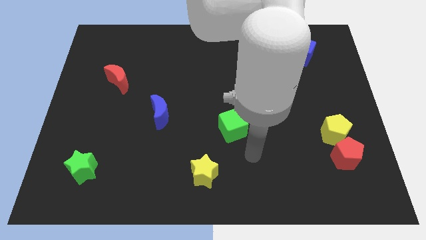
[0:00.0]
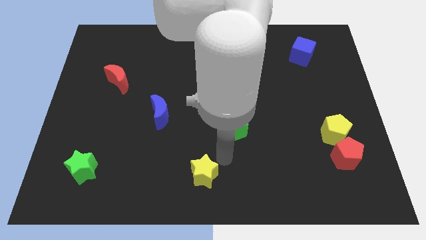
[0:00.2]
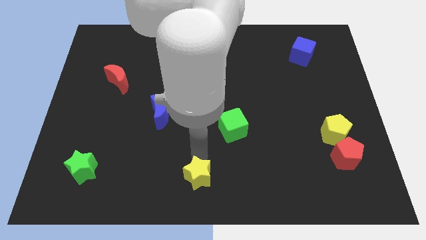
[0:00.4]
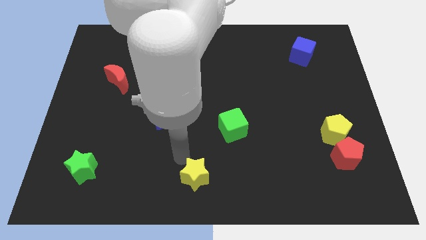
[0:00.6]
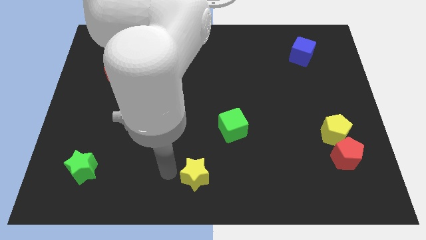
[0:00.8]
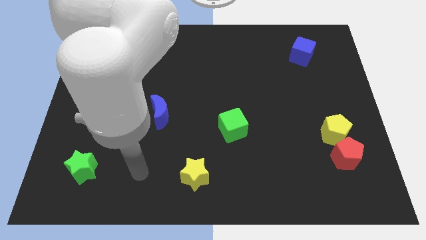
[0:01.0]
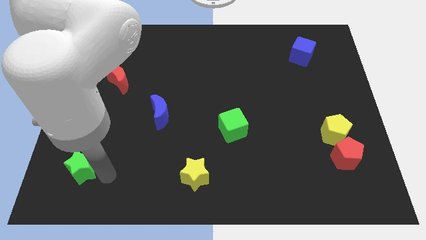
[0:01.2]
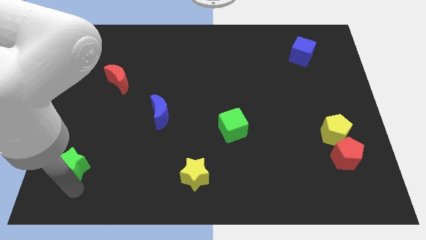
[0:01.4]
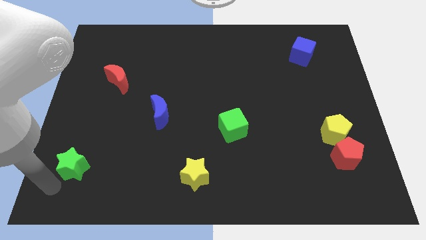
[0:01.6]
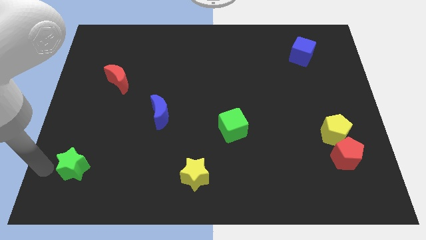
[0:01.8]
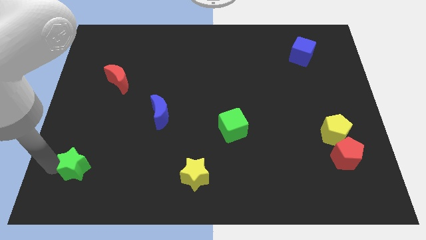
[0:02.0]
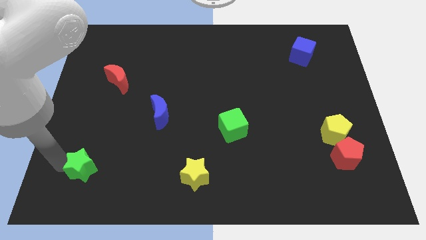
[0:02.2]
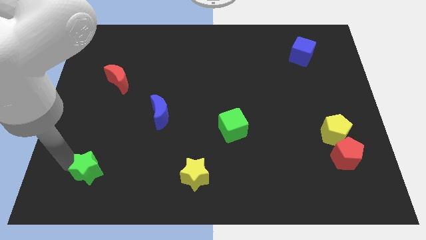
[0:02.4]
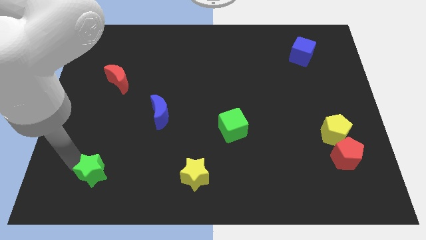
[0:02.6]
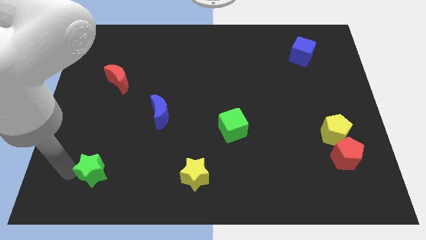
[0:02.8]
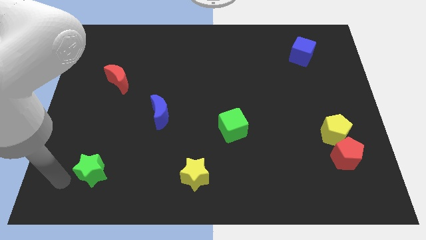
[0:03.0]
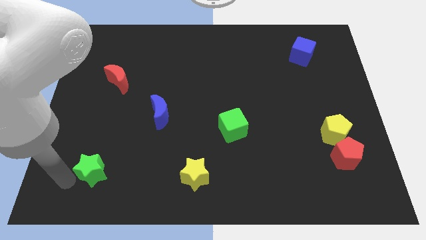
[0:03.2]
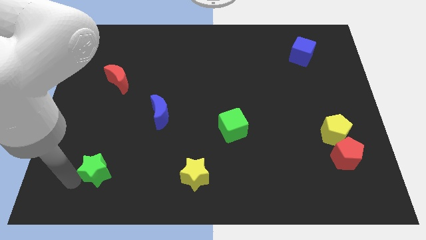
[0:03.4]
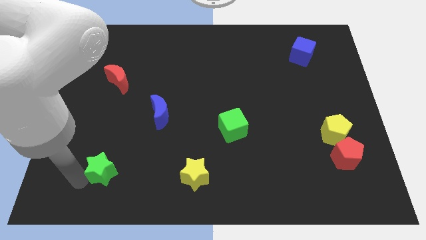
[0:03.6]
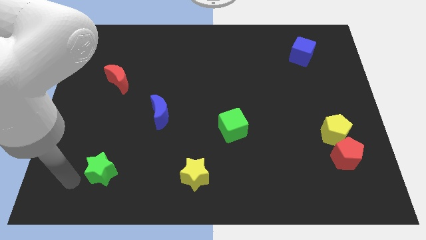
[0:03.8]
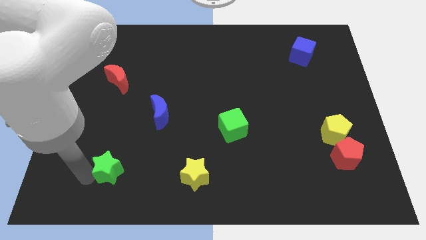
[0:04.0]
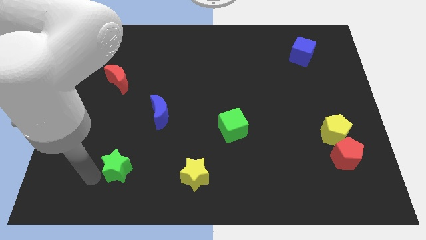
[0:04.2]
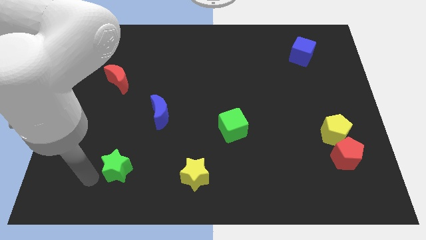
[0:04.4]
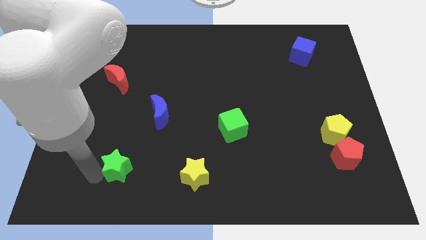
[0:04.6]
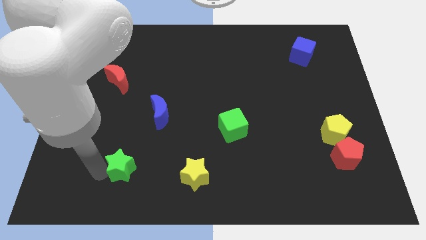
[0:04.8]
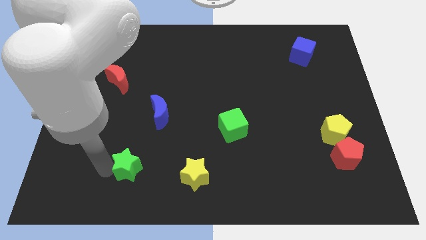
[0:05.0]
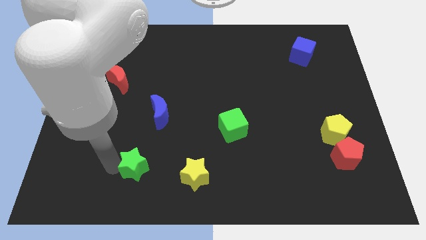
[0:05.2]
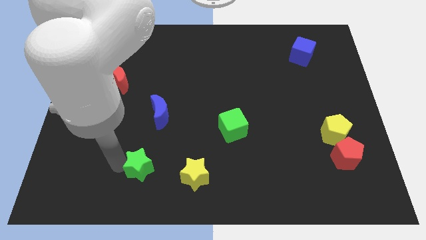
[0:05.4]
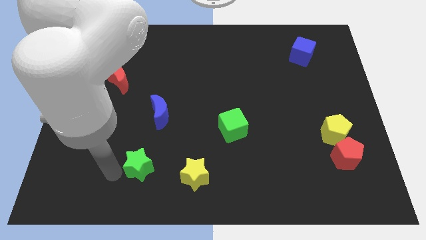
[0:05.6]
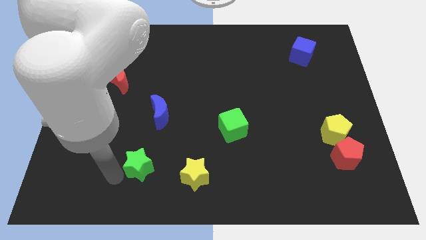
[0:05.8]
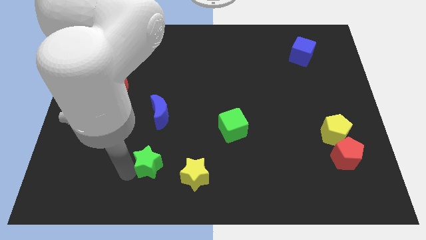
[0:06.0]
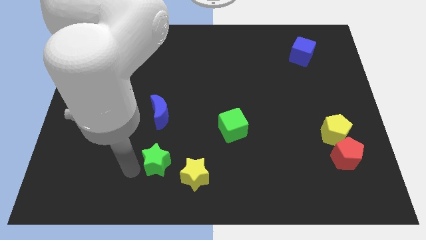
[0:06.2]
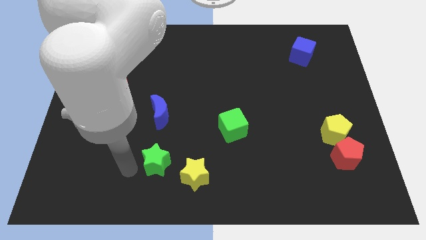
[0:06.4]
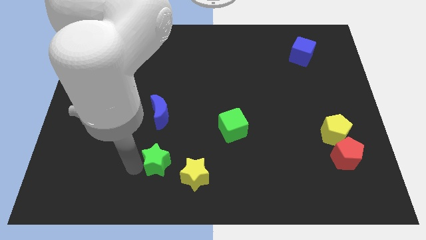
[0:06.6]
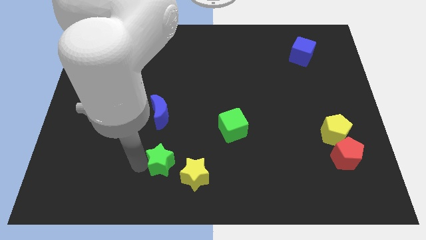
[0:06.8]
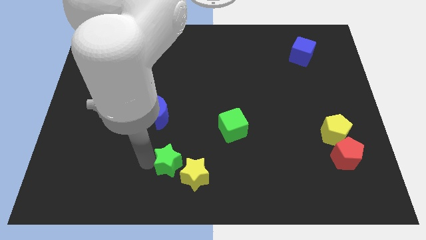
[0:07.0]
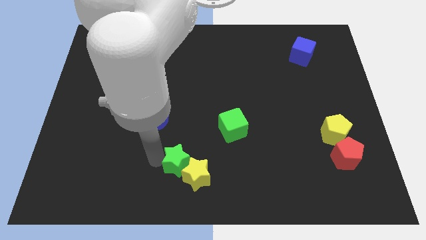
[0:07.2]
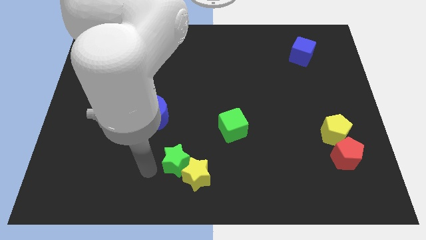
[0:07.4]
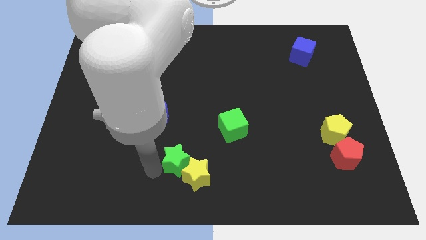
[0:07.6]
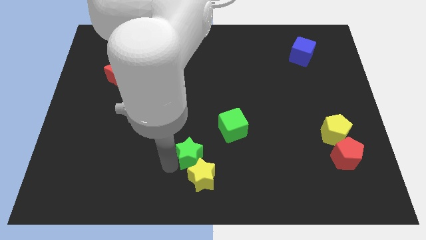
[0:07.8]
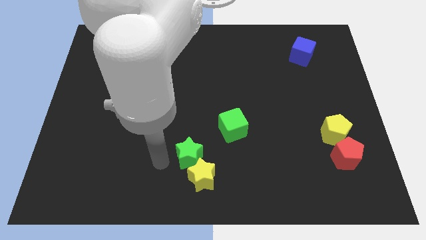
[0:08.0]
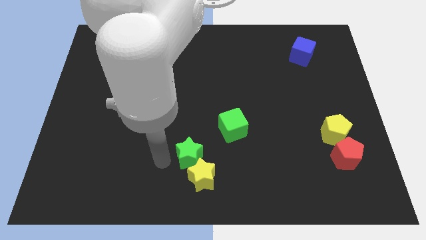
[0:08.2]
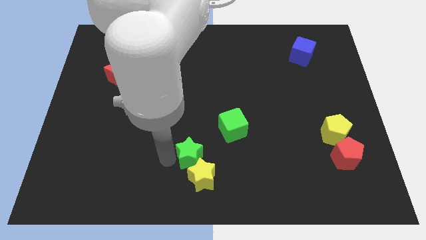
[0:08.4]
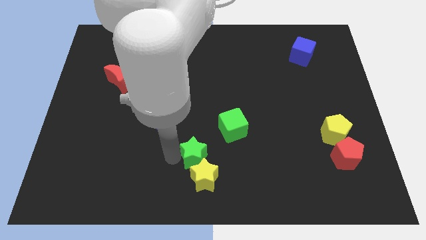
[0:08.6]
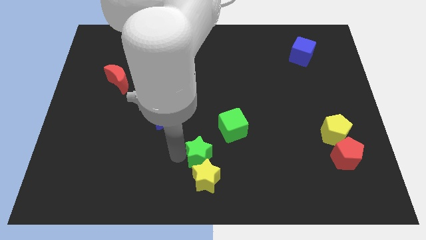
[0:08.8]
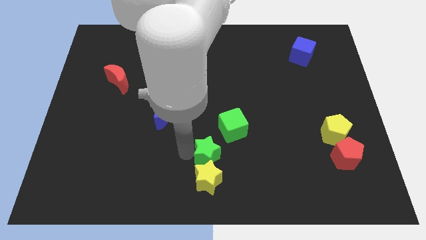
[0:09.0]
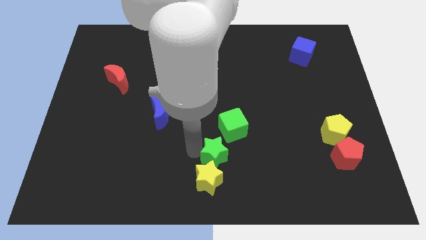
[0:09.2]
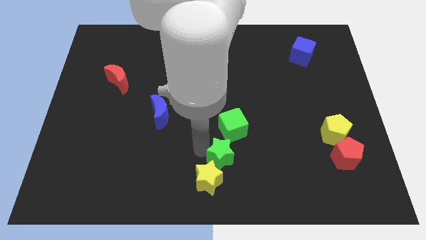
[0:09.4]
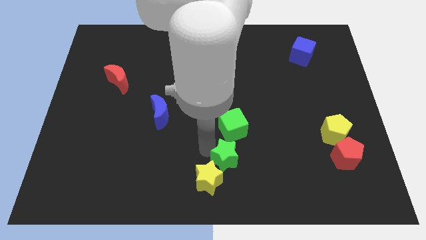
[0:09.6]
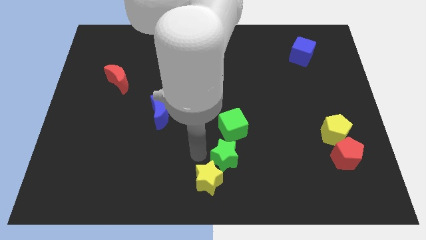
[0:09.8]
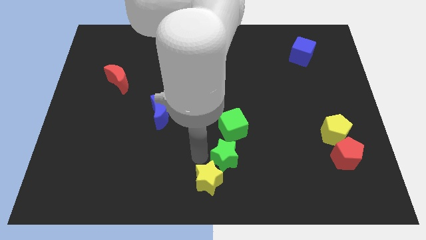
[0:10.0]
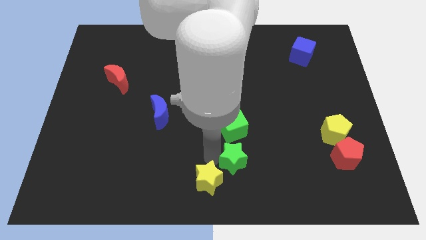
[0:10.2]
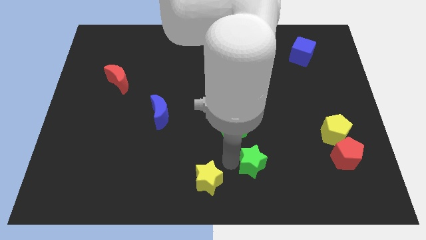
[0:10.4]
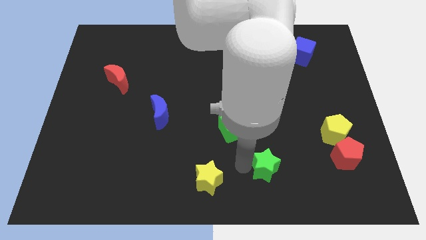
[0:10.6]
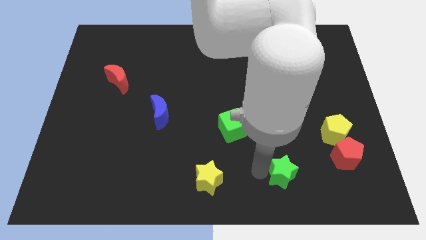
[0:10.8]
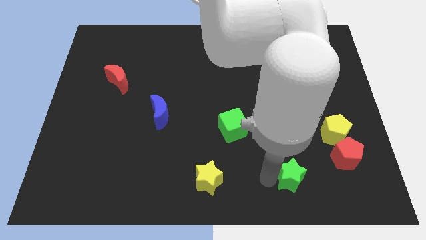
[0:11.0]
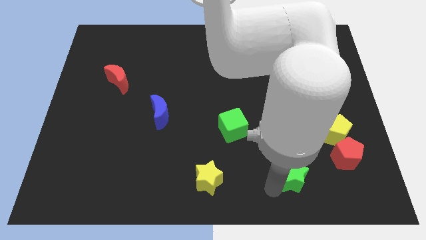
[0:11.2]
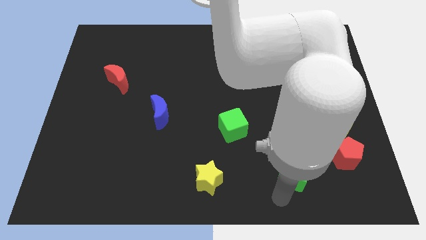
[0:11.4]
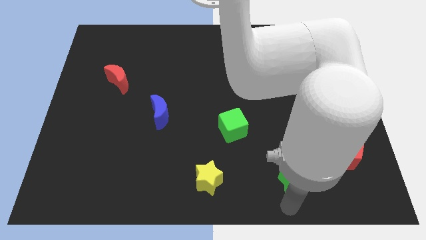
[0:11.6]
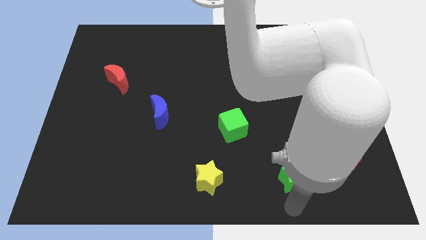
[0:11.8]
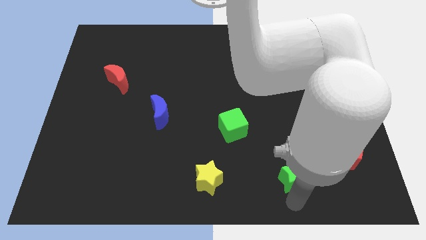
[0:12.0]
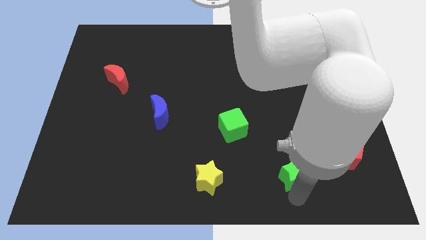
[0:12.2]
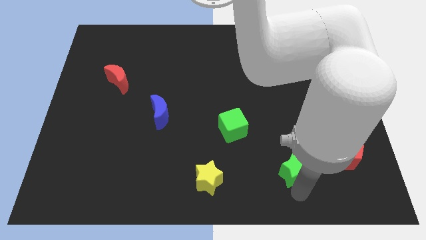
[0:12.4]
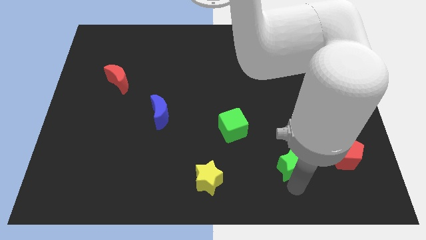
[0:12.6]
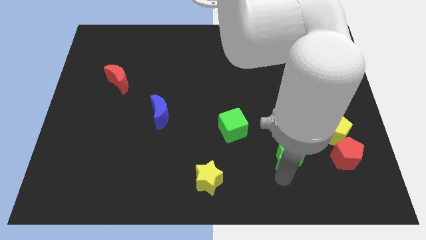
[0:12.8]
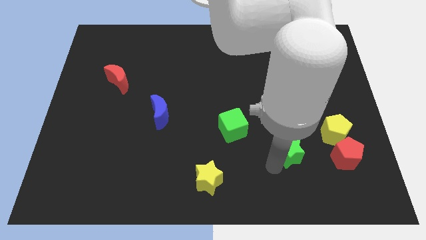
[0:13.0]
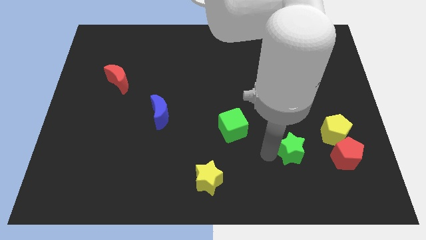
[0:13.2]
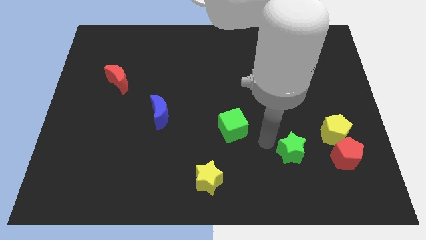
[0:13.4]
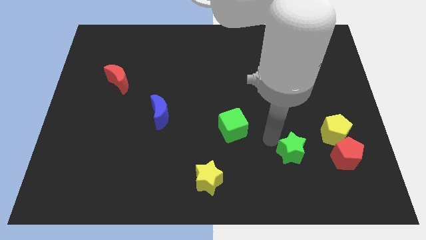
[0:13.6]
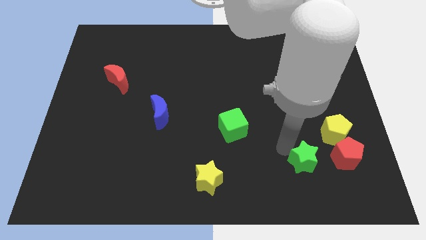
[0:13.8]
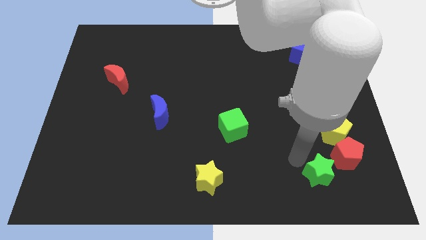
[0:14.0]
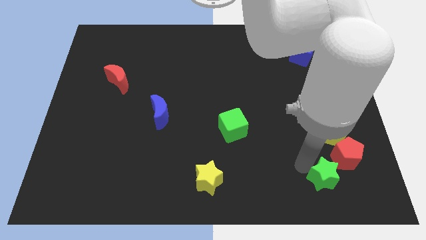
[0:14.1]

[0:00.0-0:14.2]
slide the green star to the bottom of the yellow pentagon
